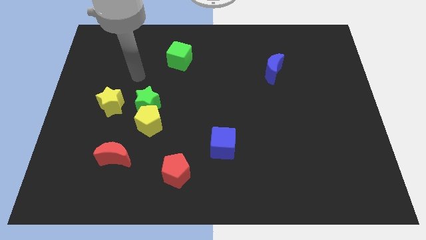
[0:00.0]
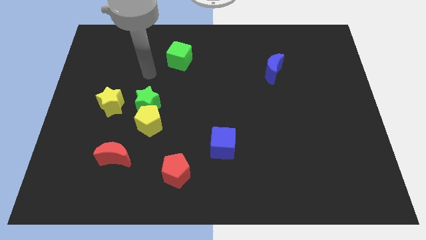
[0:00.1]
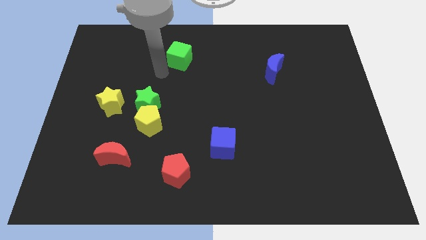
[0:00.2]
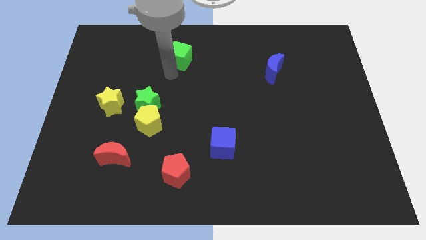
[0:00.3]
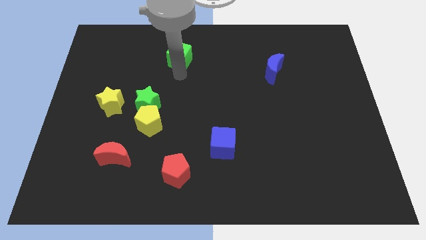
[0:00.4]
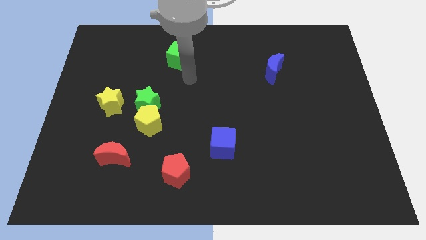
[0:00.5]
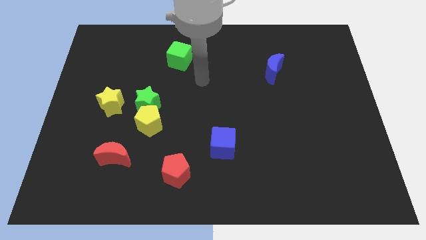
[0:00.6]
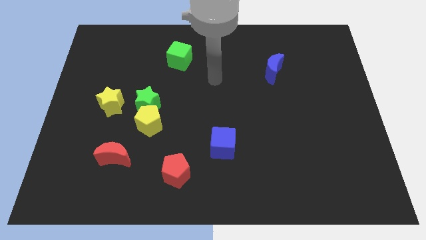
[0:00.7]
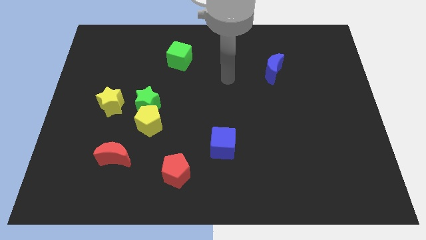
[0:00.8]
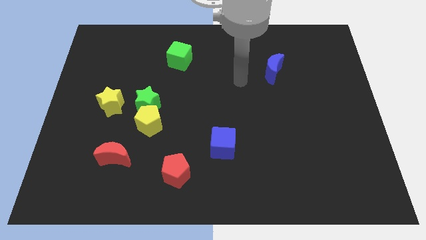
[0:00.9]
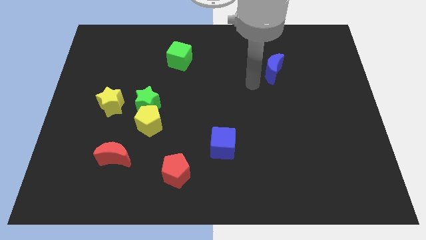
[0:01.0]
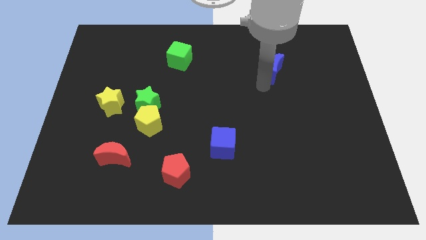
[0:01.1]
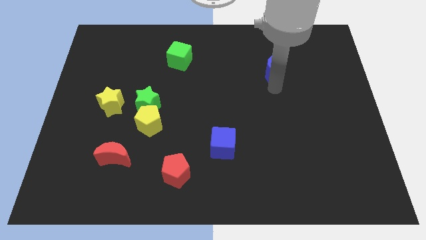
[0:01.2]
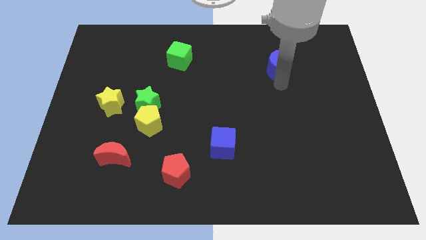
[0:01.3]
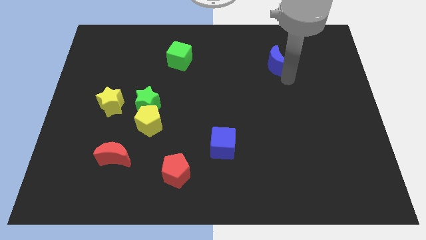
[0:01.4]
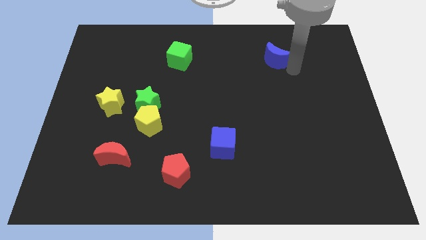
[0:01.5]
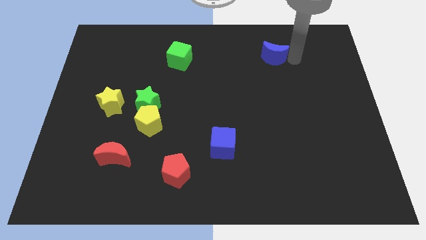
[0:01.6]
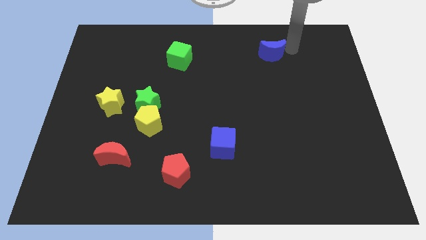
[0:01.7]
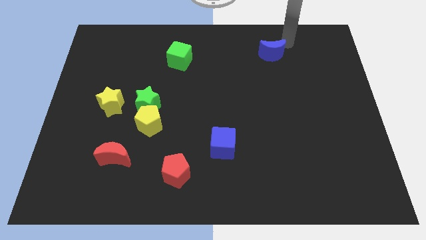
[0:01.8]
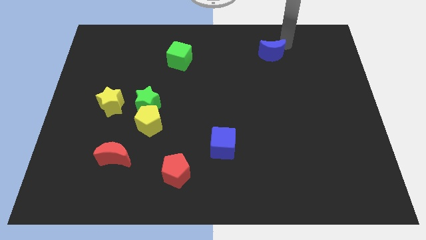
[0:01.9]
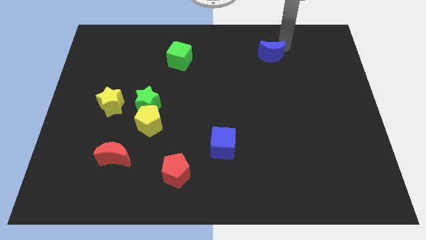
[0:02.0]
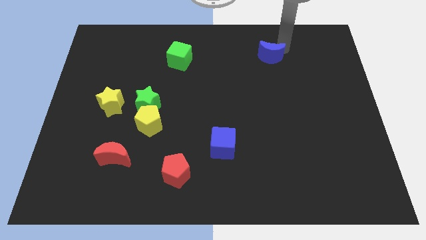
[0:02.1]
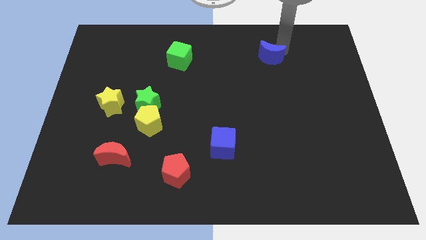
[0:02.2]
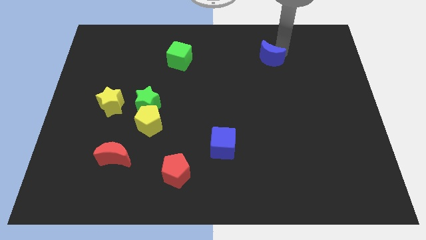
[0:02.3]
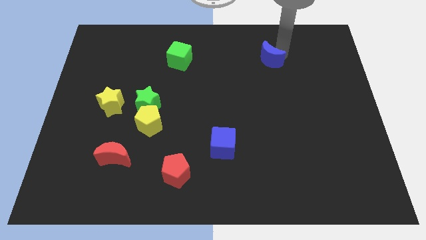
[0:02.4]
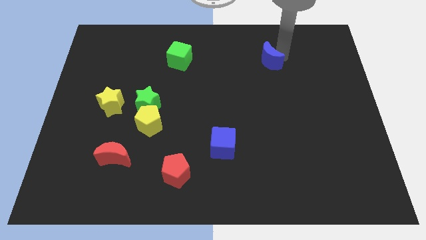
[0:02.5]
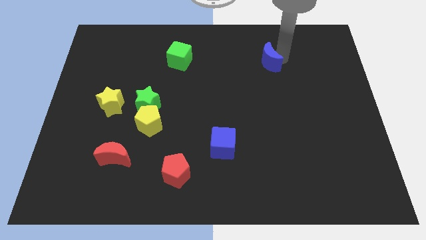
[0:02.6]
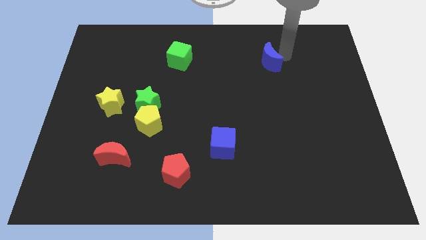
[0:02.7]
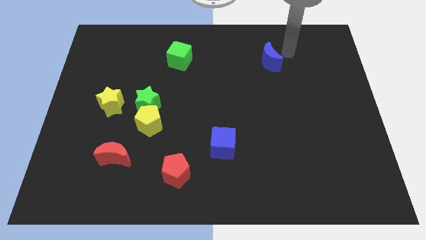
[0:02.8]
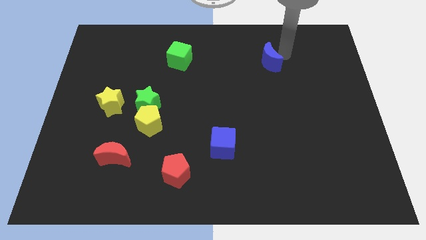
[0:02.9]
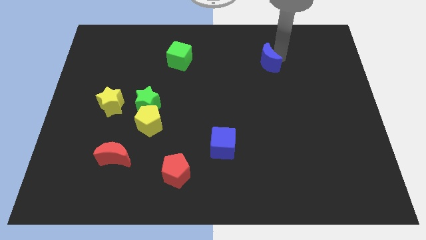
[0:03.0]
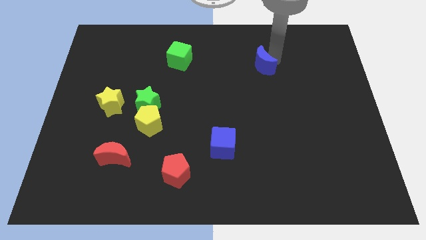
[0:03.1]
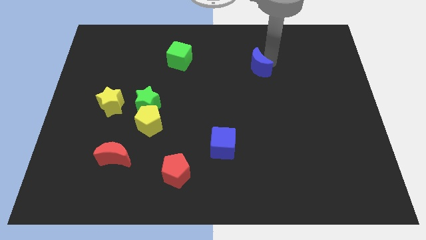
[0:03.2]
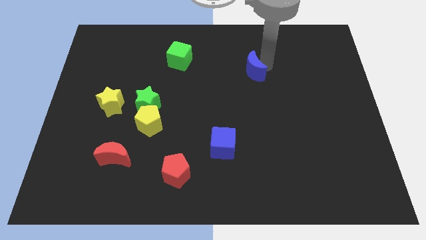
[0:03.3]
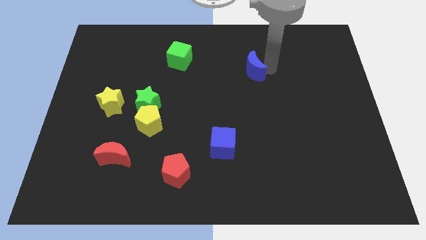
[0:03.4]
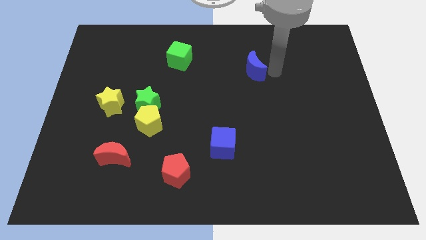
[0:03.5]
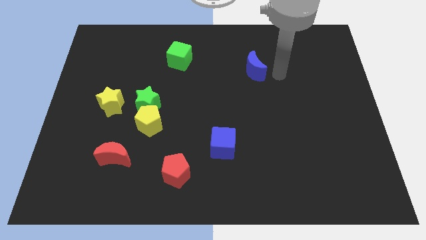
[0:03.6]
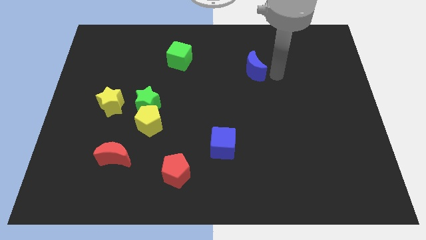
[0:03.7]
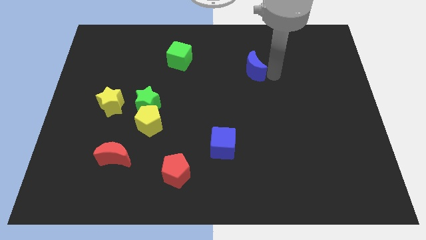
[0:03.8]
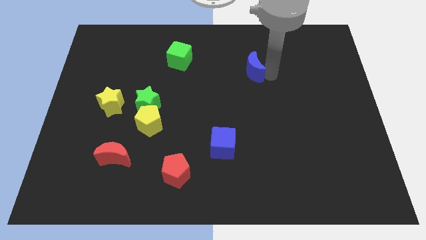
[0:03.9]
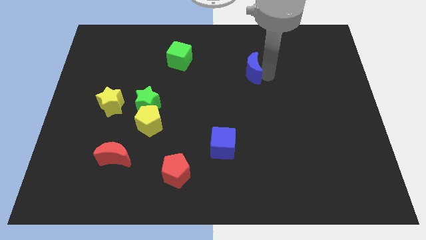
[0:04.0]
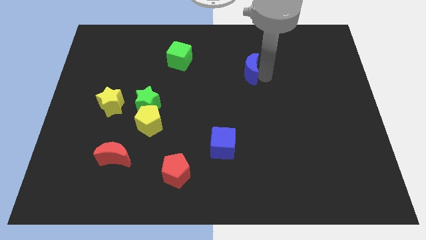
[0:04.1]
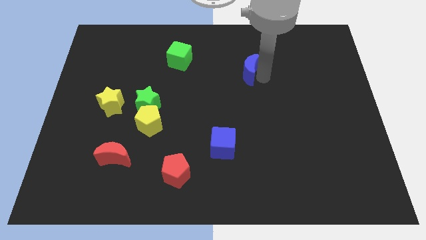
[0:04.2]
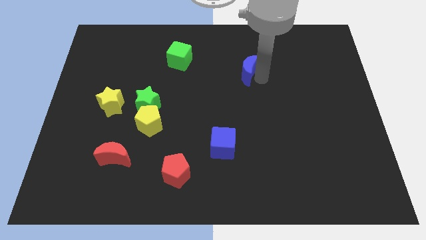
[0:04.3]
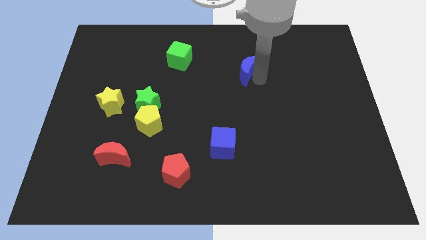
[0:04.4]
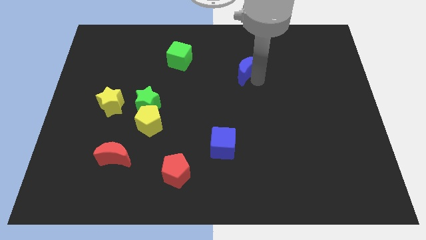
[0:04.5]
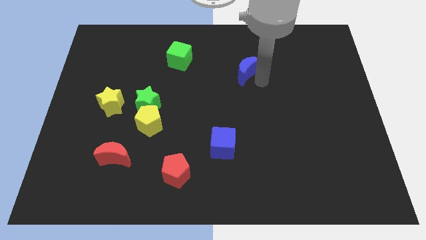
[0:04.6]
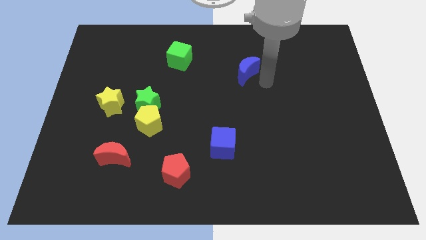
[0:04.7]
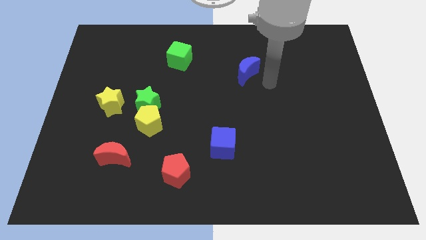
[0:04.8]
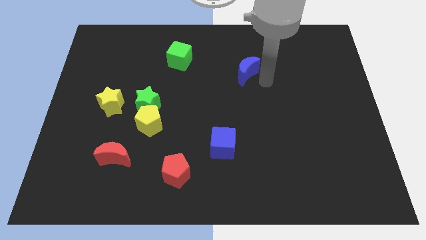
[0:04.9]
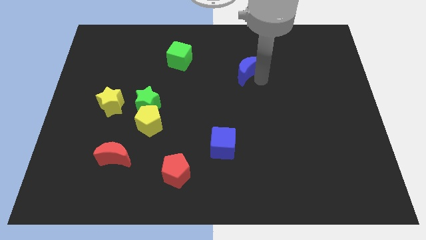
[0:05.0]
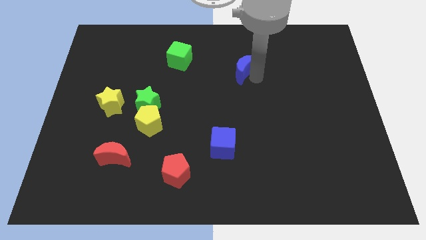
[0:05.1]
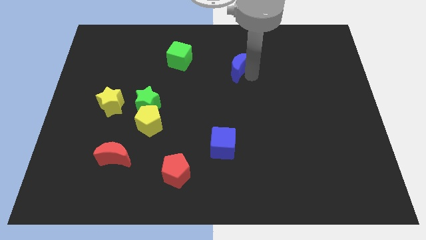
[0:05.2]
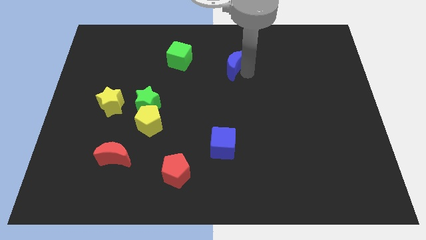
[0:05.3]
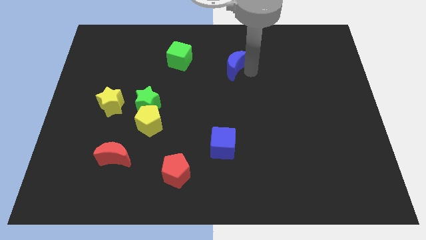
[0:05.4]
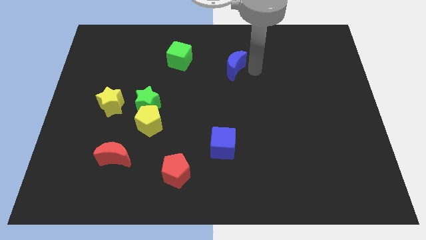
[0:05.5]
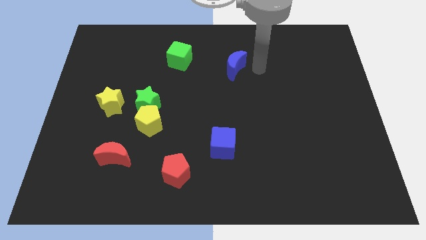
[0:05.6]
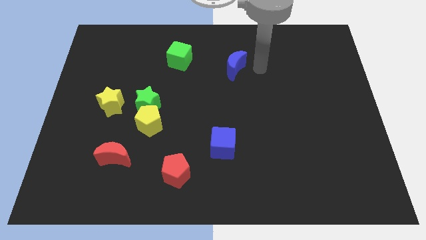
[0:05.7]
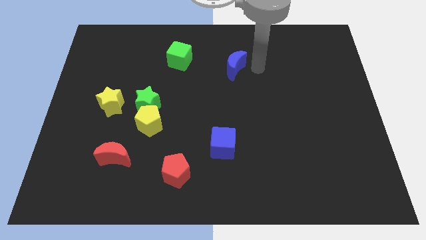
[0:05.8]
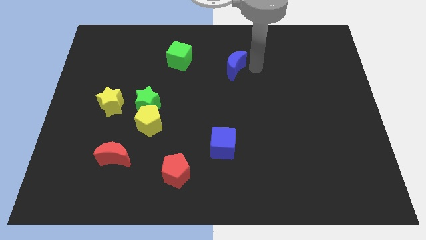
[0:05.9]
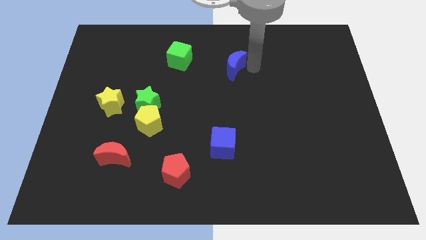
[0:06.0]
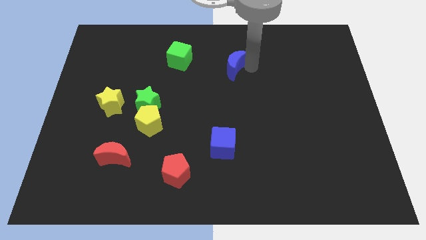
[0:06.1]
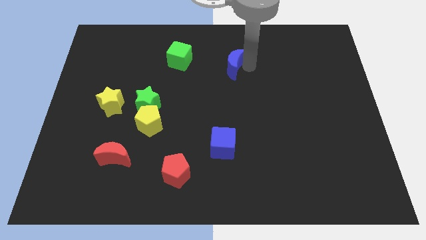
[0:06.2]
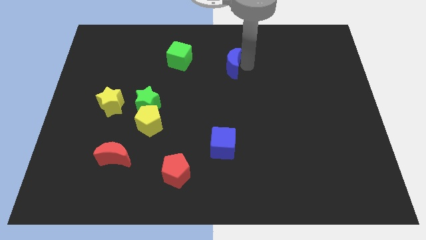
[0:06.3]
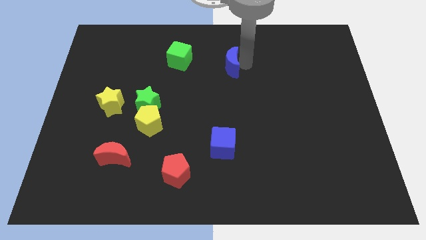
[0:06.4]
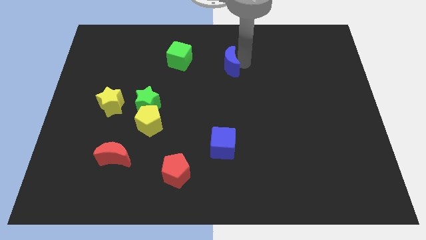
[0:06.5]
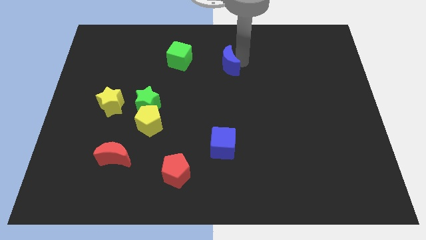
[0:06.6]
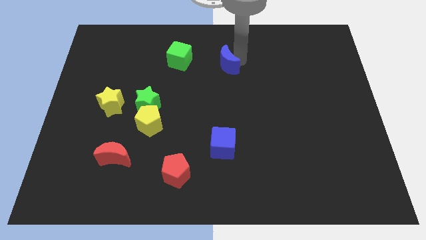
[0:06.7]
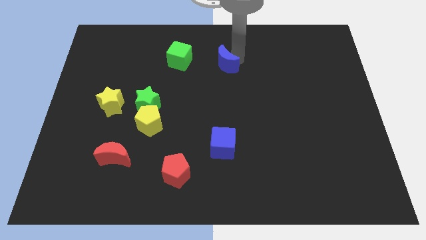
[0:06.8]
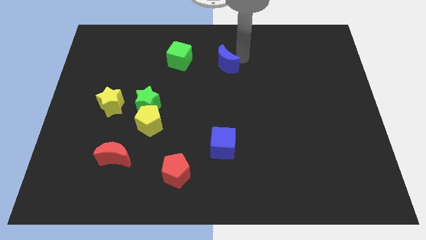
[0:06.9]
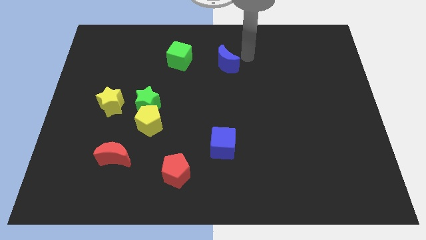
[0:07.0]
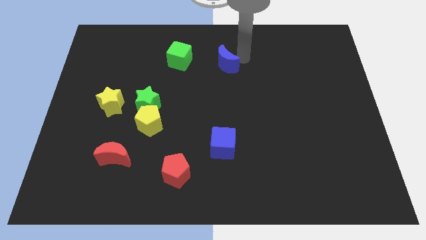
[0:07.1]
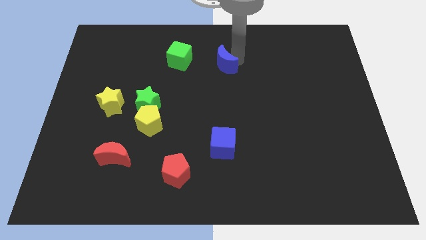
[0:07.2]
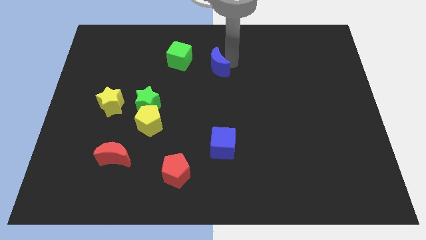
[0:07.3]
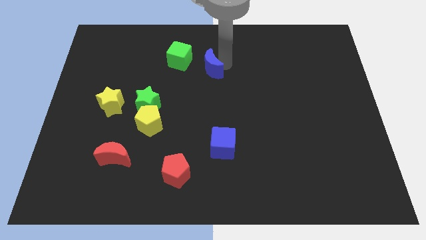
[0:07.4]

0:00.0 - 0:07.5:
put the blue moon to the bottom right of the green cube
